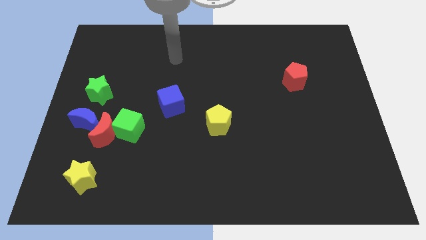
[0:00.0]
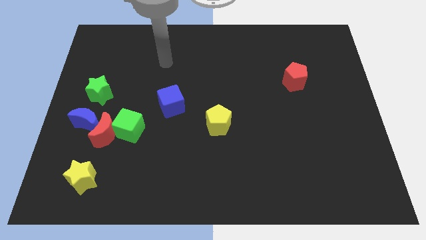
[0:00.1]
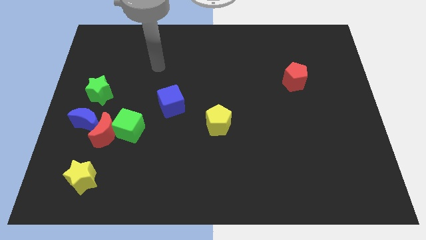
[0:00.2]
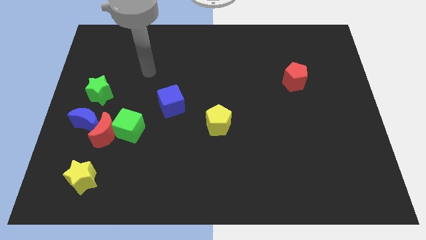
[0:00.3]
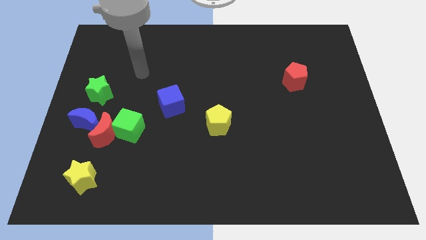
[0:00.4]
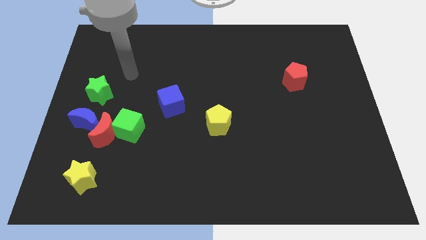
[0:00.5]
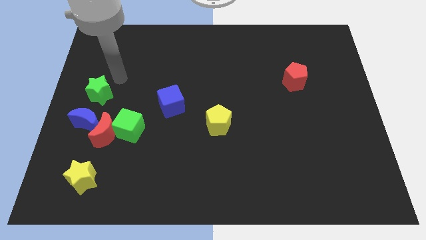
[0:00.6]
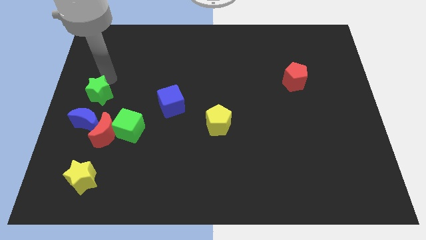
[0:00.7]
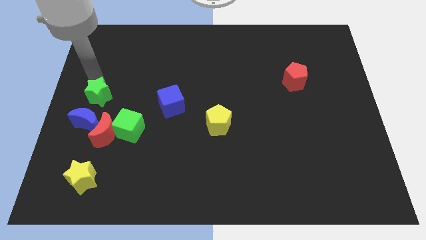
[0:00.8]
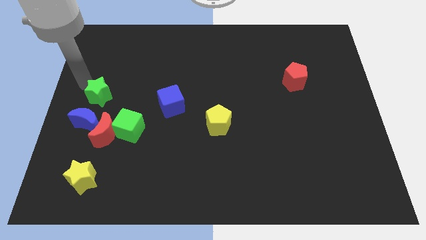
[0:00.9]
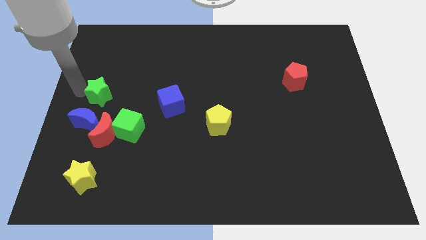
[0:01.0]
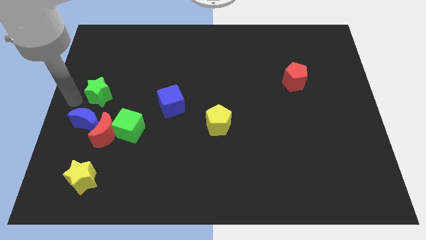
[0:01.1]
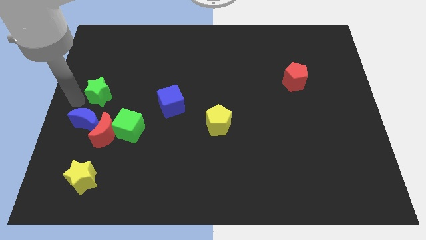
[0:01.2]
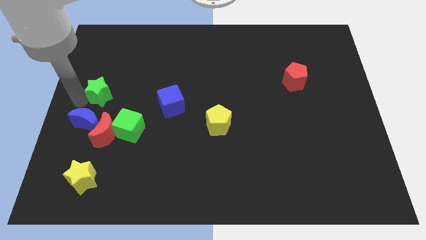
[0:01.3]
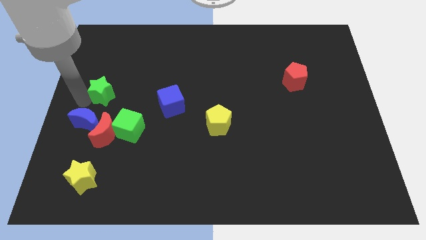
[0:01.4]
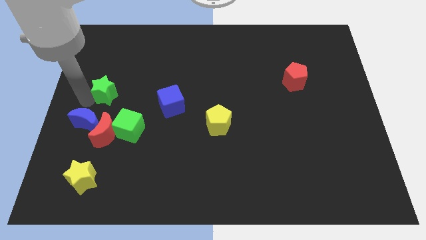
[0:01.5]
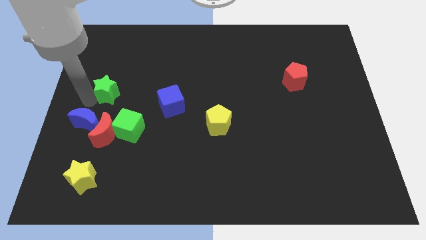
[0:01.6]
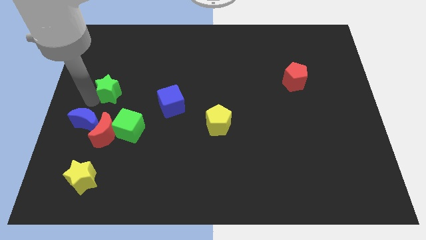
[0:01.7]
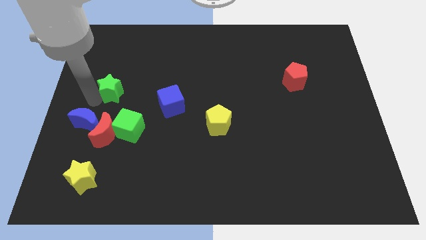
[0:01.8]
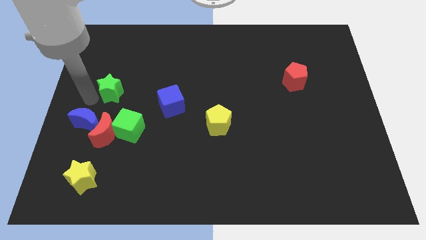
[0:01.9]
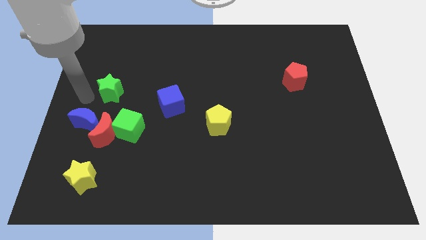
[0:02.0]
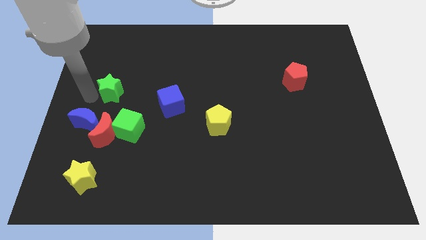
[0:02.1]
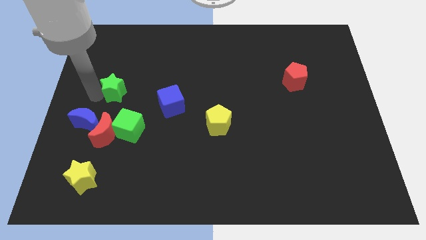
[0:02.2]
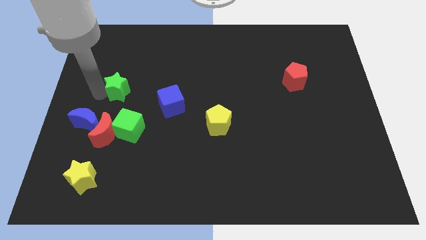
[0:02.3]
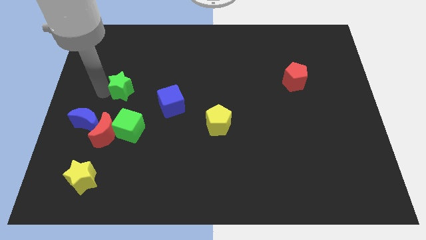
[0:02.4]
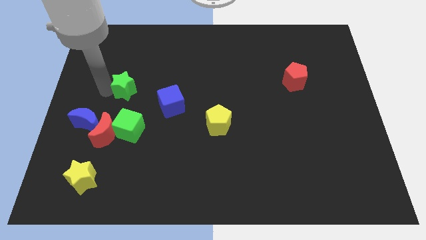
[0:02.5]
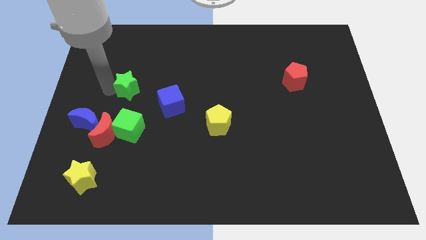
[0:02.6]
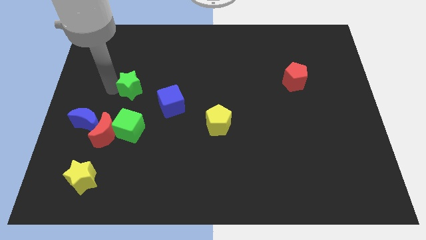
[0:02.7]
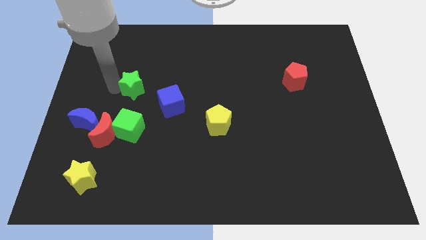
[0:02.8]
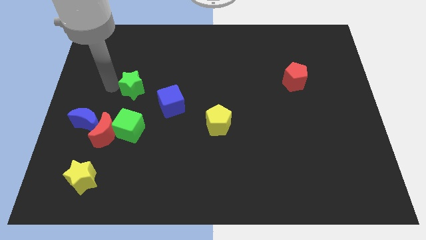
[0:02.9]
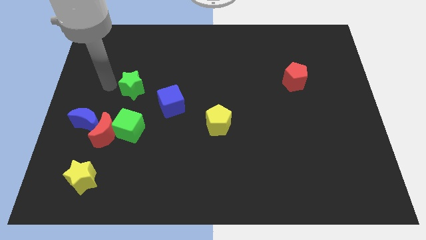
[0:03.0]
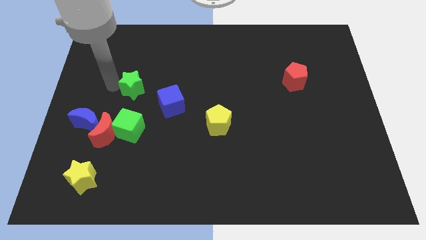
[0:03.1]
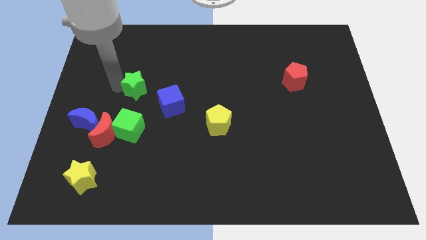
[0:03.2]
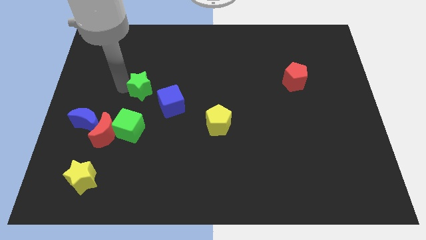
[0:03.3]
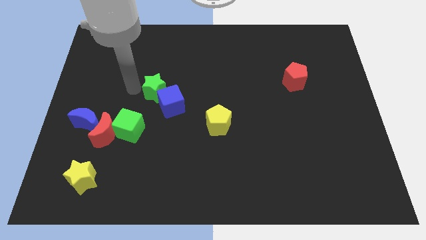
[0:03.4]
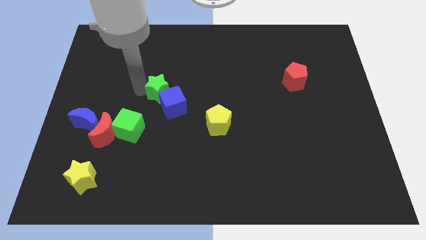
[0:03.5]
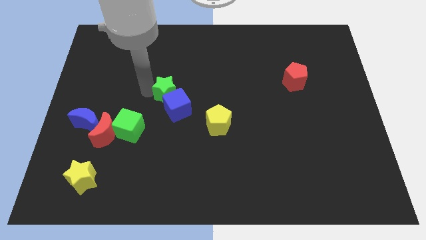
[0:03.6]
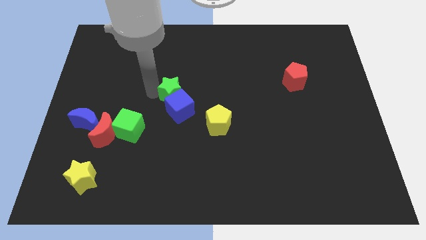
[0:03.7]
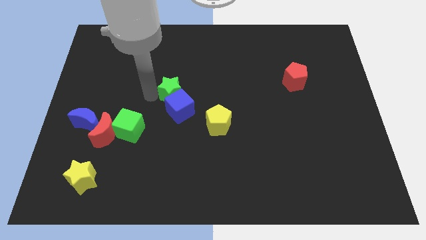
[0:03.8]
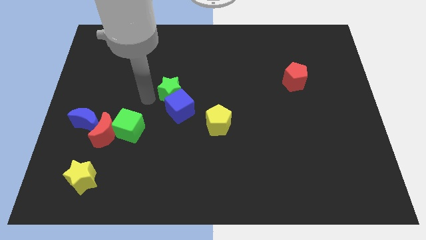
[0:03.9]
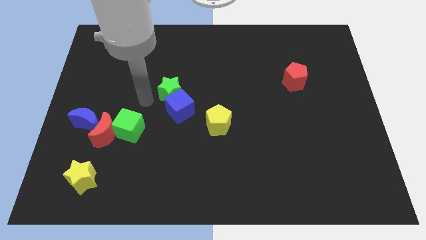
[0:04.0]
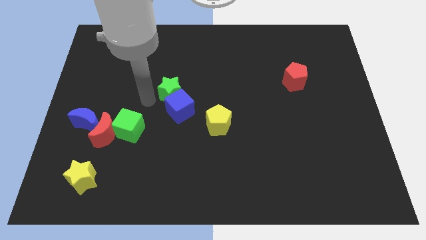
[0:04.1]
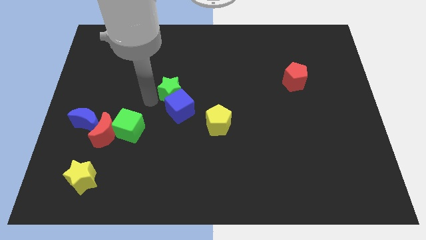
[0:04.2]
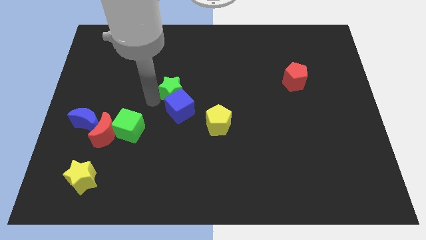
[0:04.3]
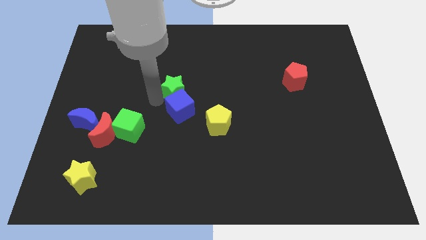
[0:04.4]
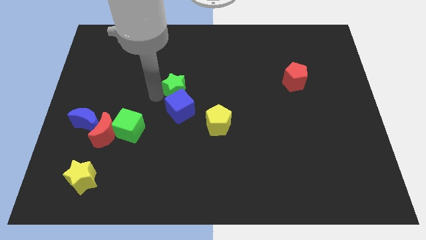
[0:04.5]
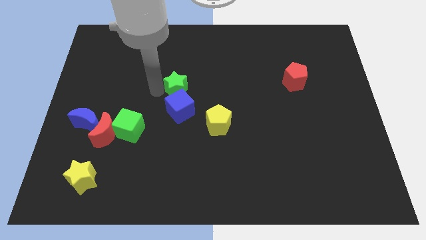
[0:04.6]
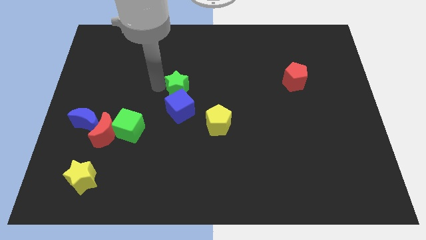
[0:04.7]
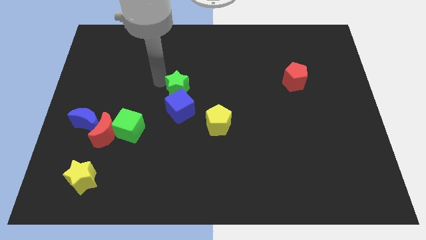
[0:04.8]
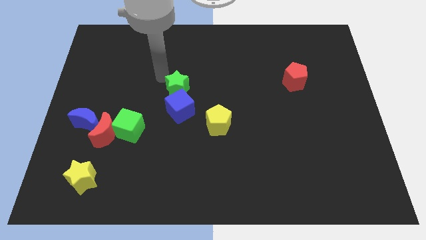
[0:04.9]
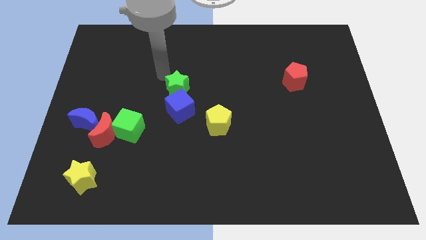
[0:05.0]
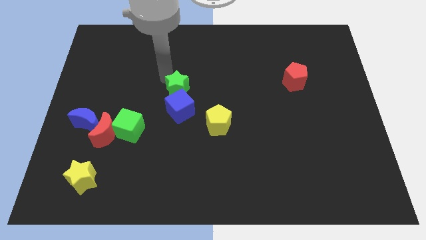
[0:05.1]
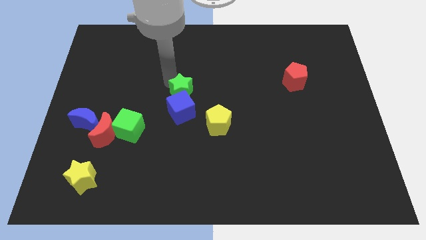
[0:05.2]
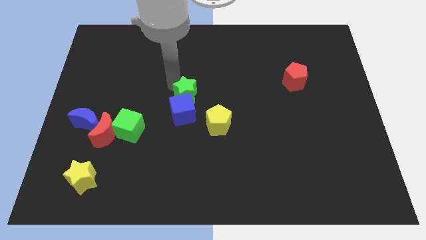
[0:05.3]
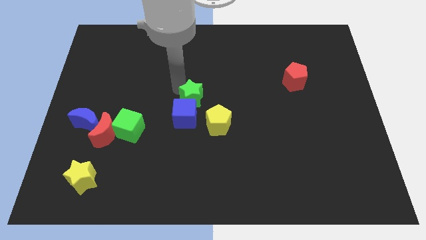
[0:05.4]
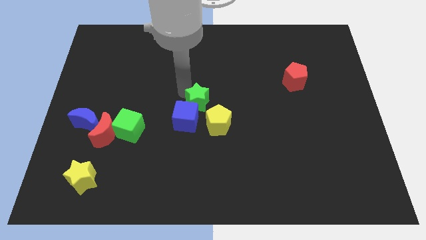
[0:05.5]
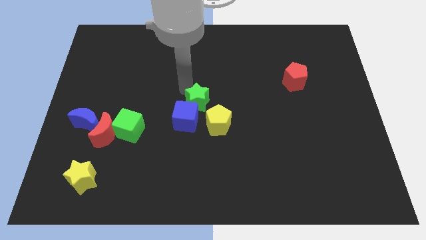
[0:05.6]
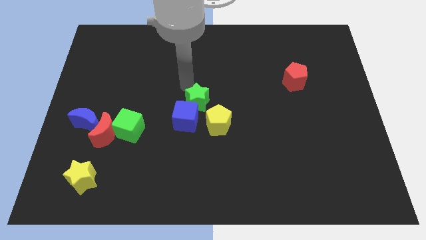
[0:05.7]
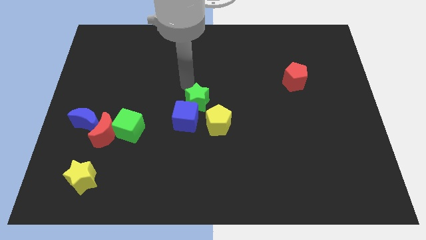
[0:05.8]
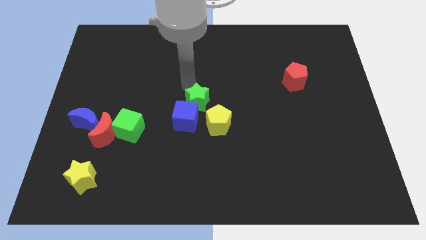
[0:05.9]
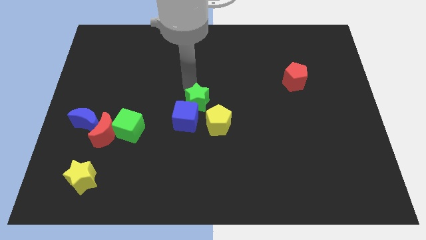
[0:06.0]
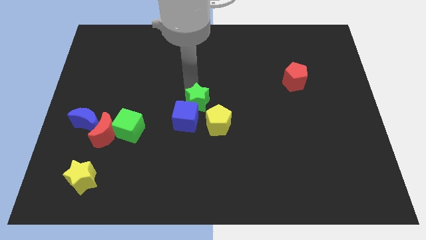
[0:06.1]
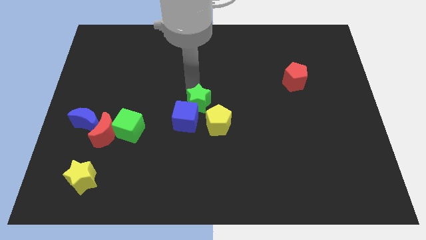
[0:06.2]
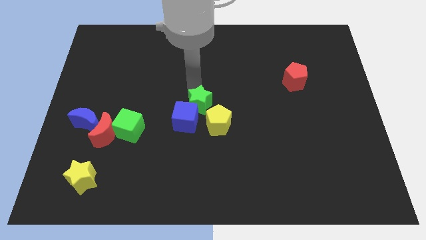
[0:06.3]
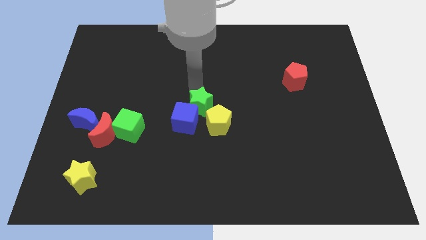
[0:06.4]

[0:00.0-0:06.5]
put the green star to the yellow pentagon
